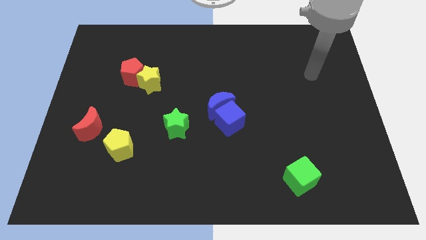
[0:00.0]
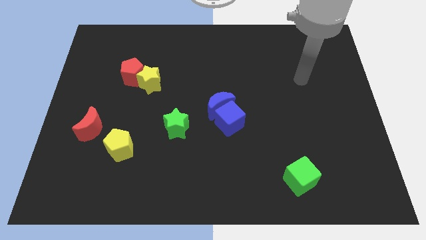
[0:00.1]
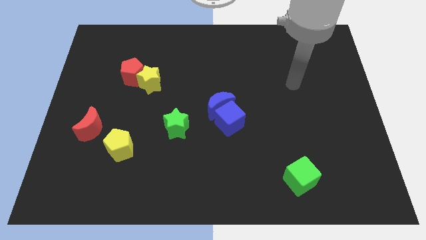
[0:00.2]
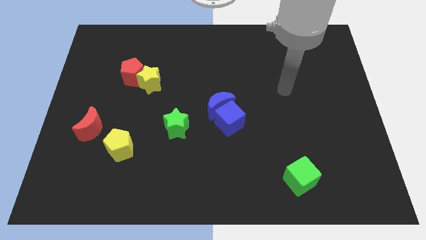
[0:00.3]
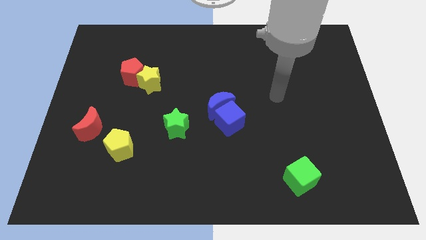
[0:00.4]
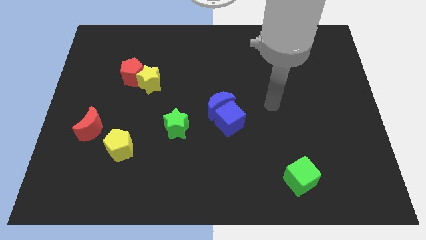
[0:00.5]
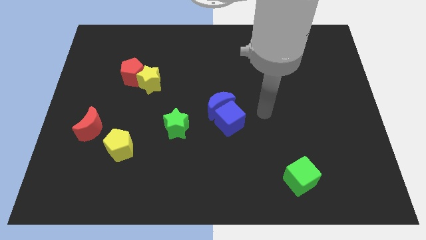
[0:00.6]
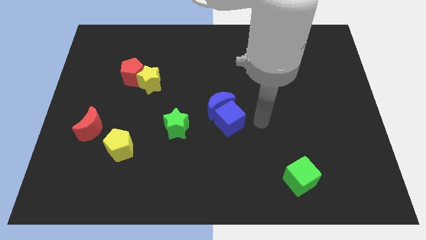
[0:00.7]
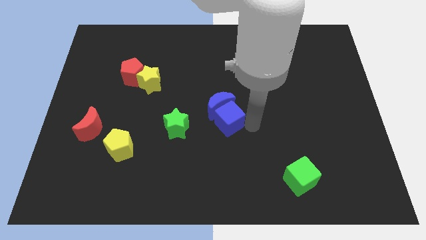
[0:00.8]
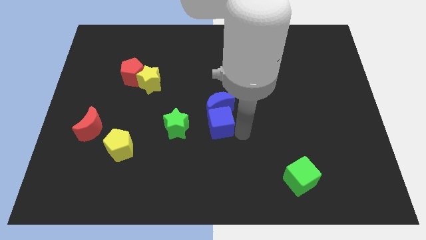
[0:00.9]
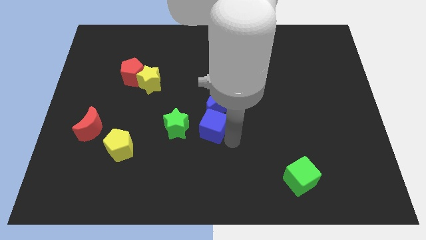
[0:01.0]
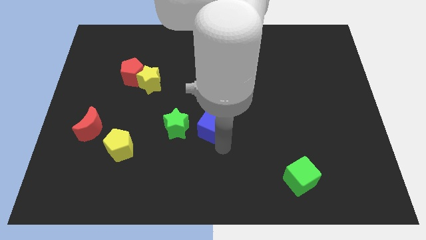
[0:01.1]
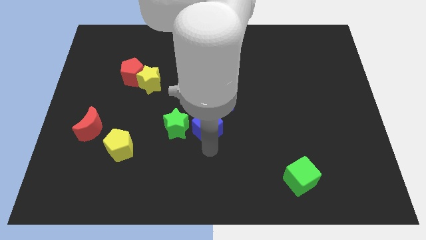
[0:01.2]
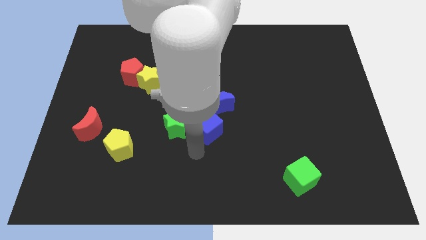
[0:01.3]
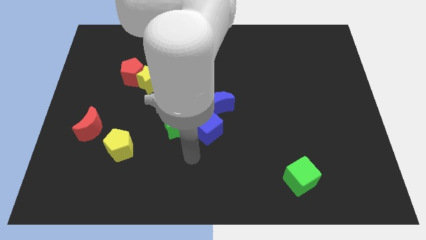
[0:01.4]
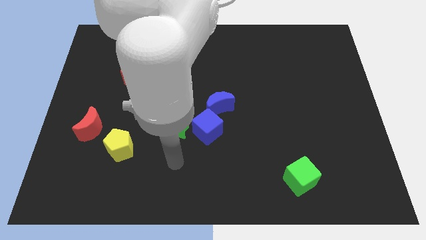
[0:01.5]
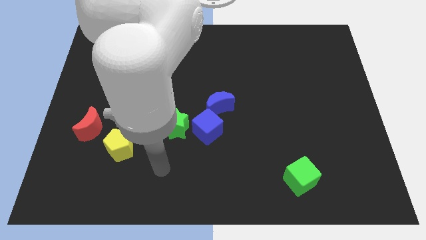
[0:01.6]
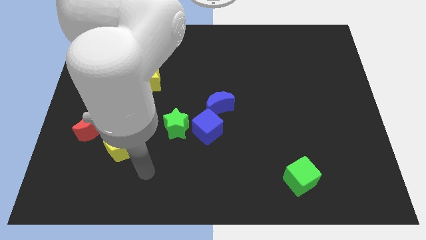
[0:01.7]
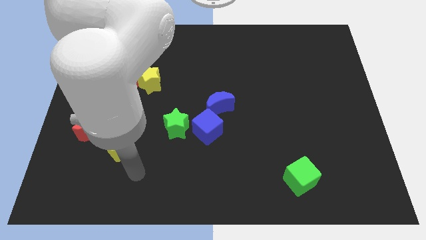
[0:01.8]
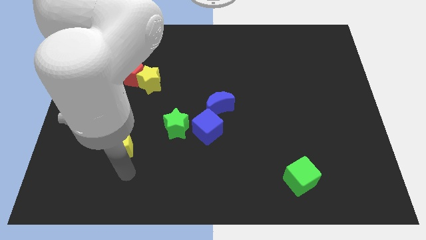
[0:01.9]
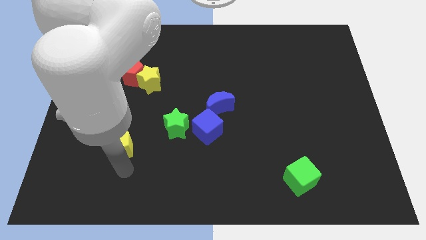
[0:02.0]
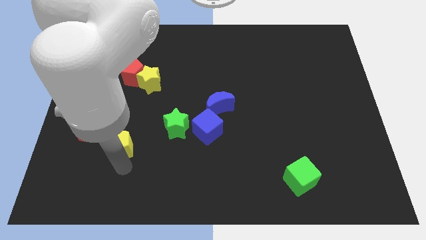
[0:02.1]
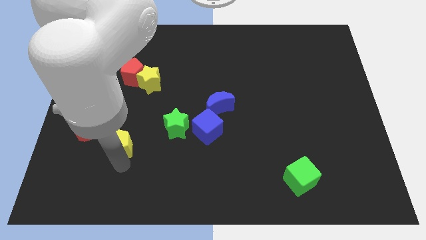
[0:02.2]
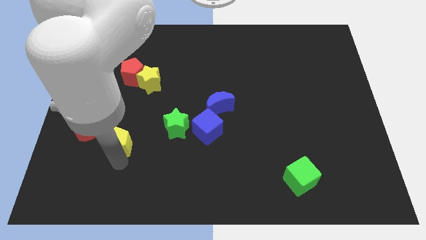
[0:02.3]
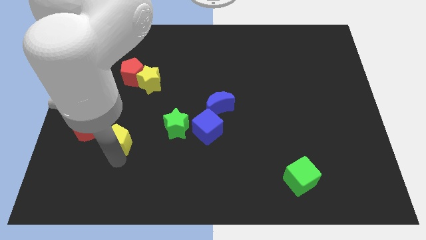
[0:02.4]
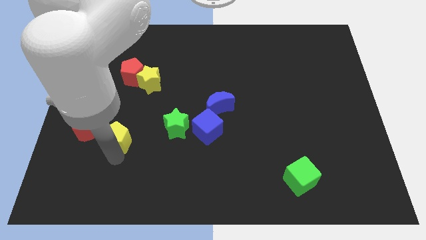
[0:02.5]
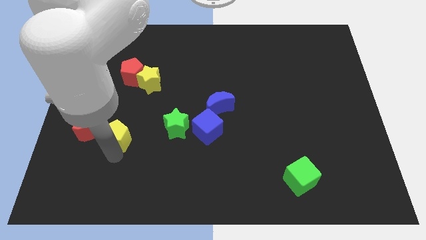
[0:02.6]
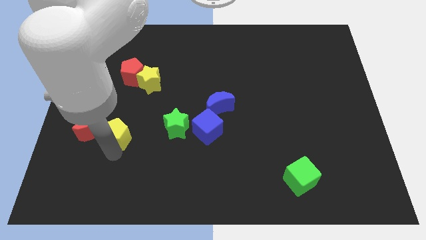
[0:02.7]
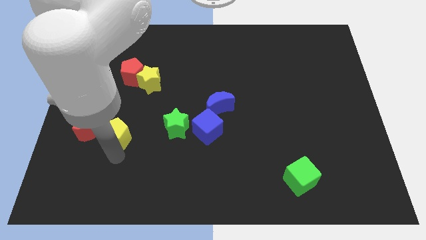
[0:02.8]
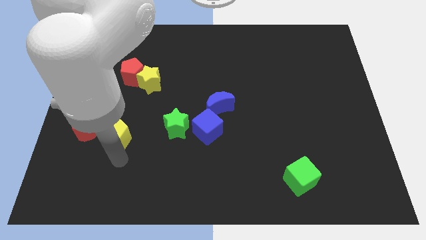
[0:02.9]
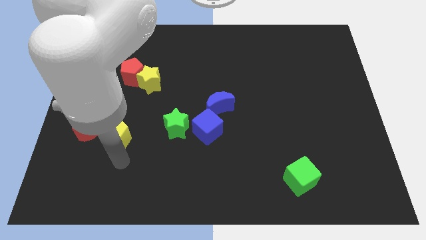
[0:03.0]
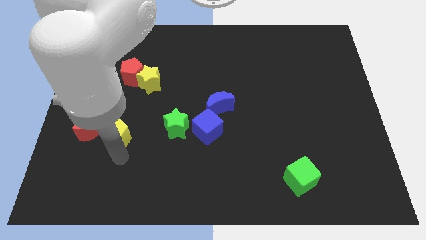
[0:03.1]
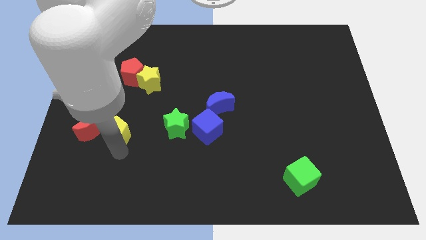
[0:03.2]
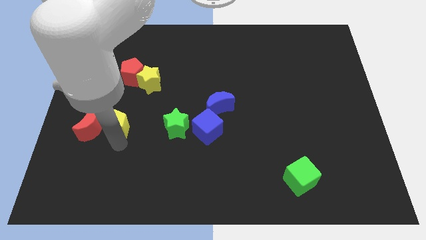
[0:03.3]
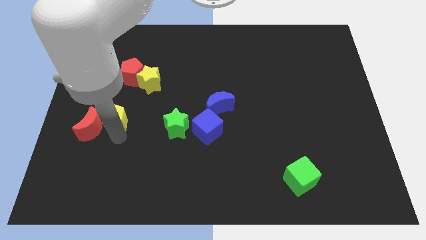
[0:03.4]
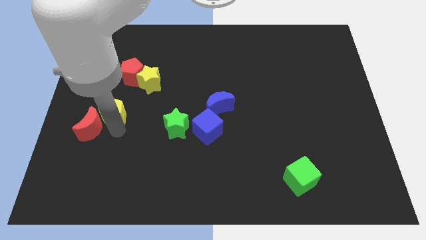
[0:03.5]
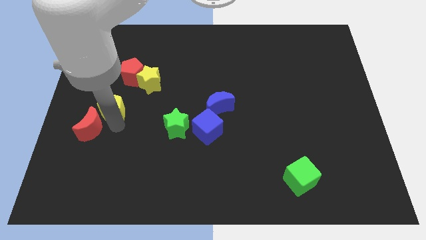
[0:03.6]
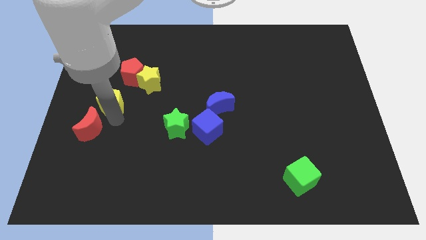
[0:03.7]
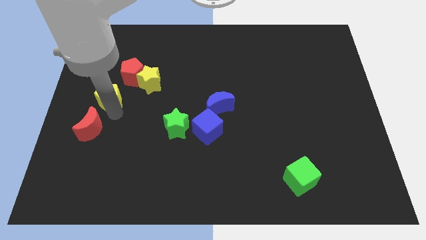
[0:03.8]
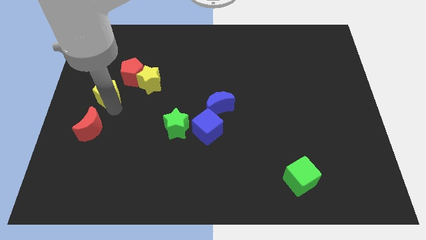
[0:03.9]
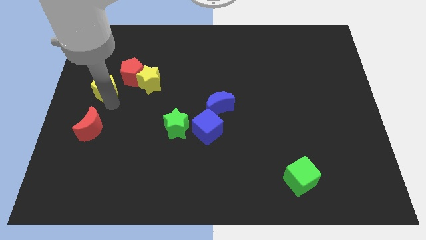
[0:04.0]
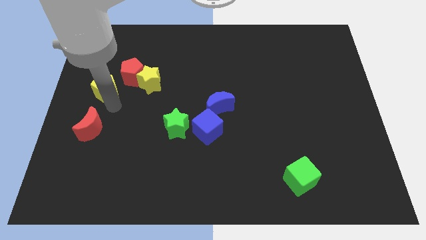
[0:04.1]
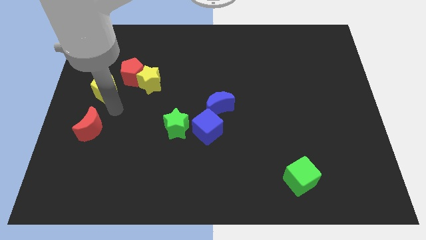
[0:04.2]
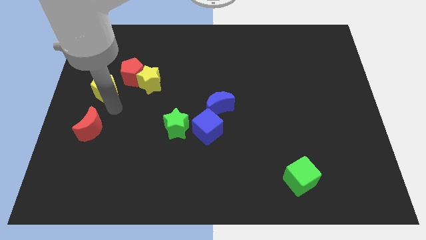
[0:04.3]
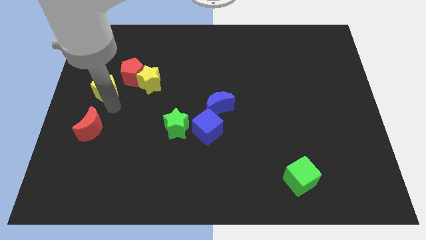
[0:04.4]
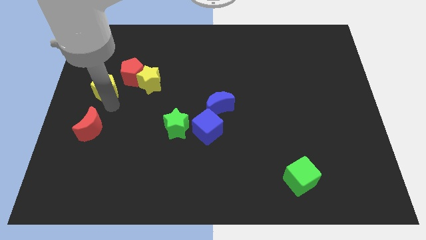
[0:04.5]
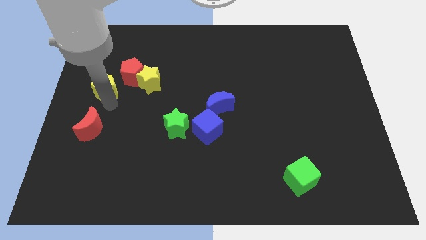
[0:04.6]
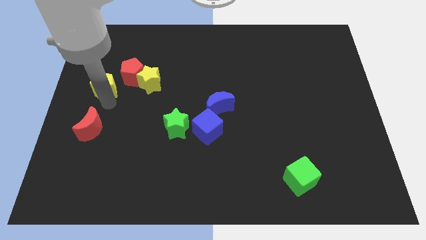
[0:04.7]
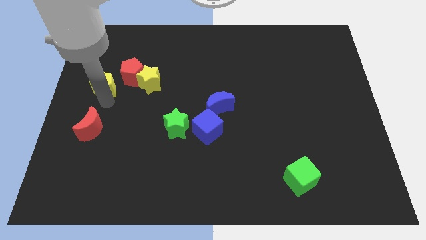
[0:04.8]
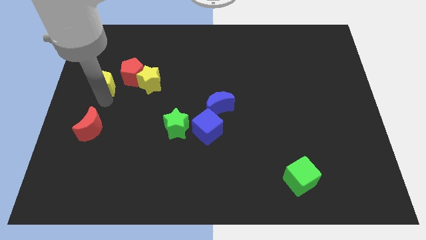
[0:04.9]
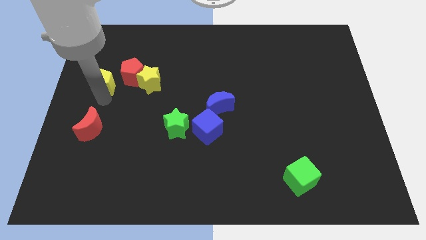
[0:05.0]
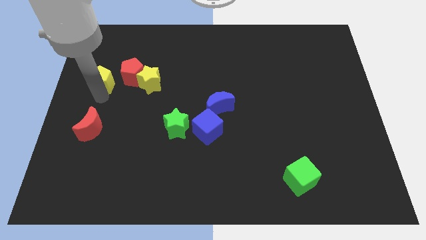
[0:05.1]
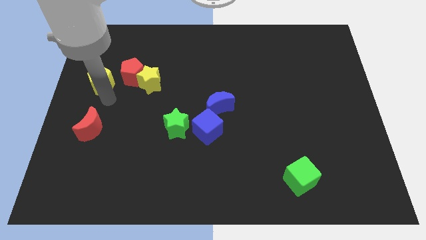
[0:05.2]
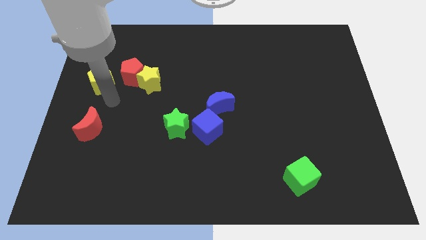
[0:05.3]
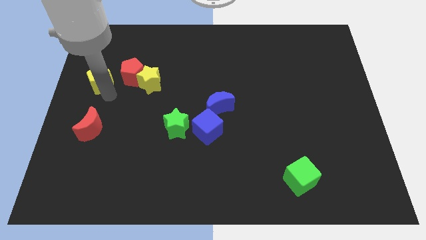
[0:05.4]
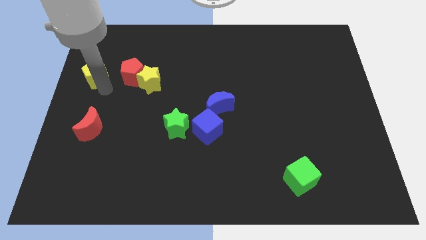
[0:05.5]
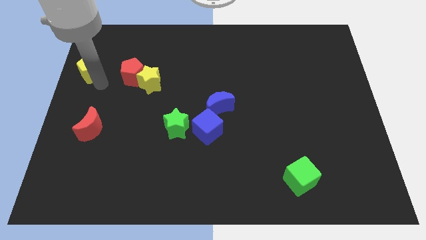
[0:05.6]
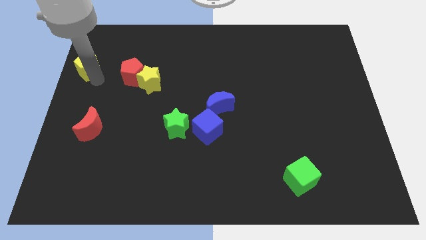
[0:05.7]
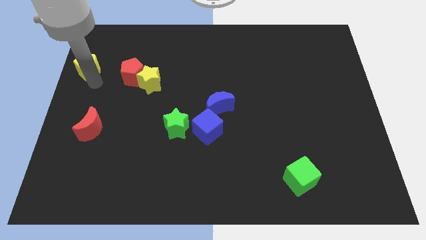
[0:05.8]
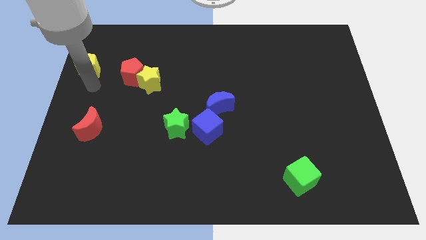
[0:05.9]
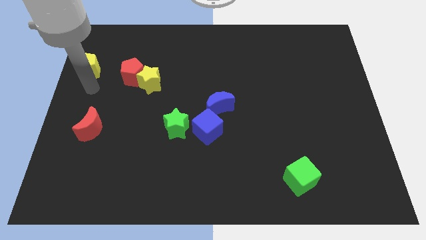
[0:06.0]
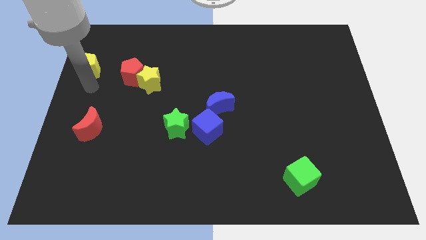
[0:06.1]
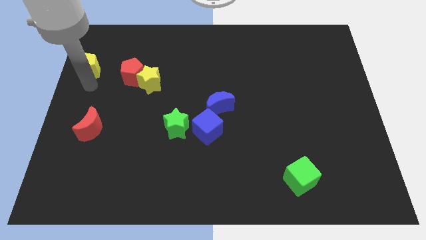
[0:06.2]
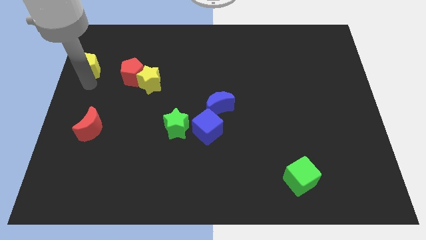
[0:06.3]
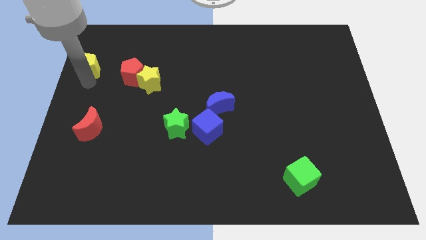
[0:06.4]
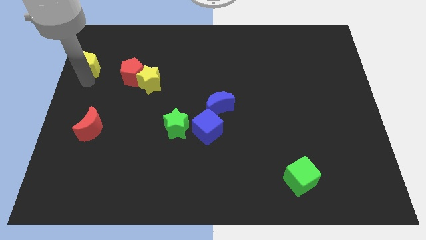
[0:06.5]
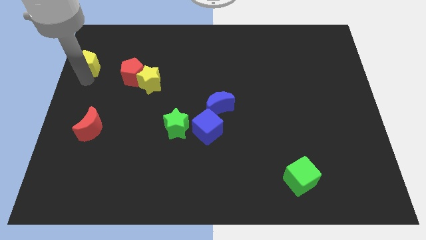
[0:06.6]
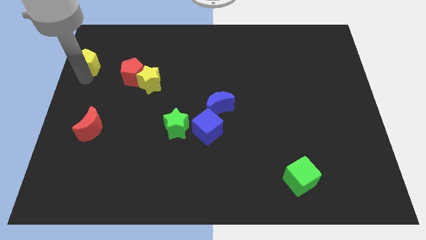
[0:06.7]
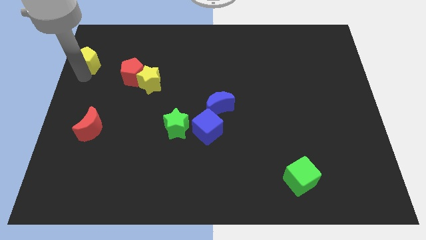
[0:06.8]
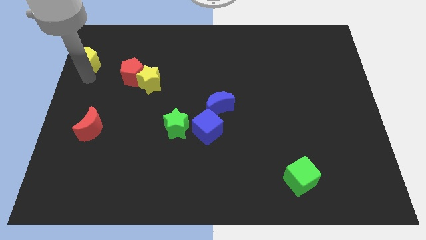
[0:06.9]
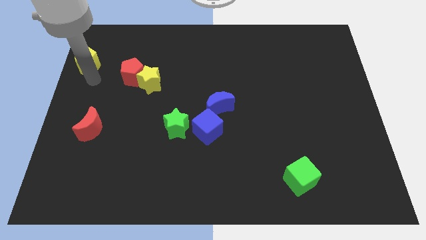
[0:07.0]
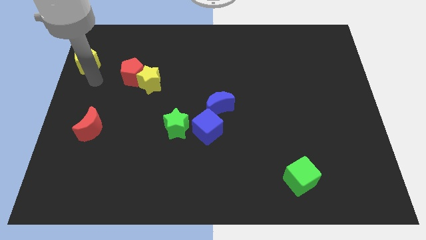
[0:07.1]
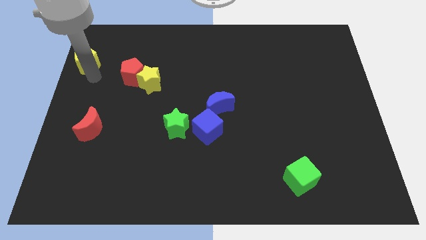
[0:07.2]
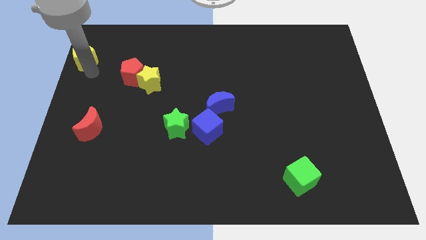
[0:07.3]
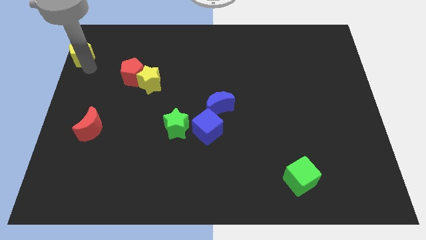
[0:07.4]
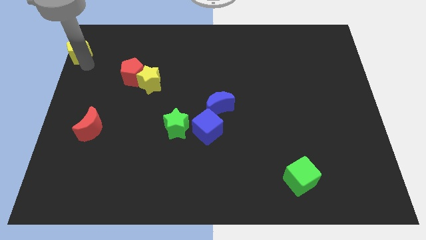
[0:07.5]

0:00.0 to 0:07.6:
put the yellow pentagon to the upper left corner
